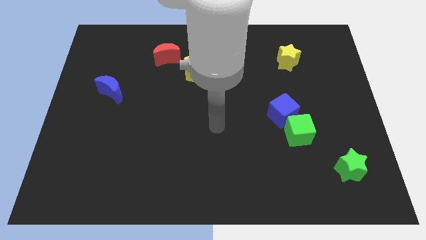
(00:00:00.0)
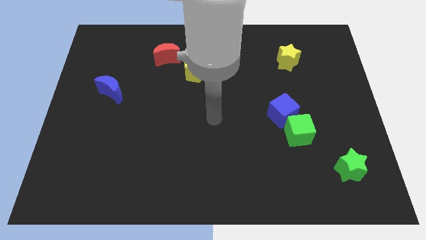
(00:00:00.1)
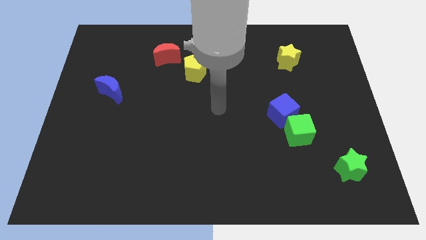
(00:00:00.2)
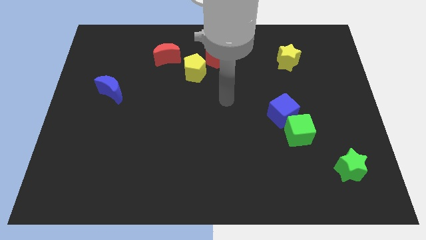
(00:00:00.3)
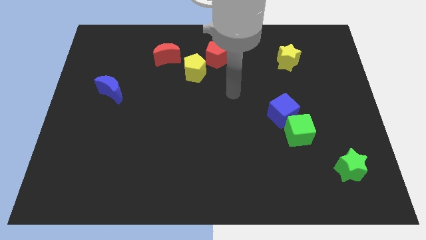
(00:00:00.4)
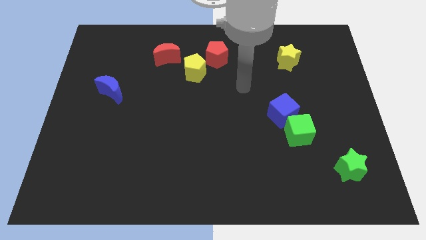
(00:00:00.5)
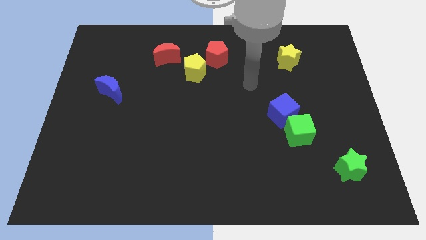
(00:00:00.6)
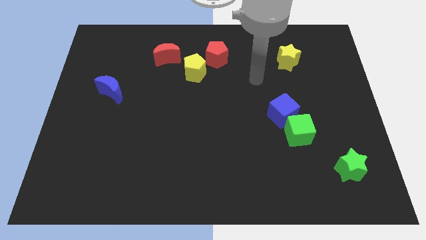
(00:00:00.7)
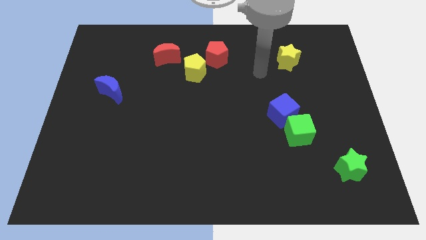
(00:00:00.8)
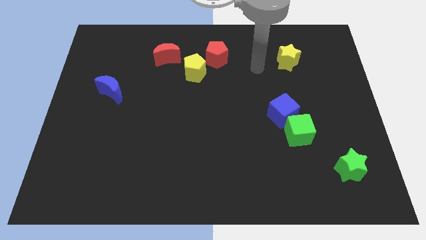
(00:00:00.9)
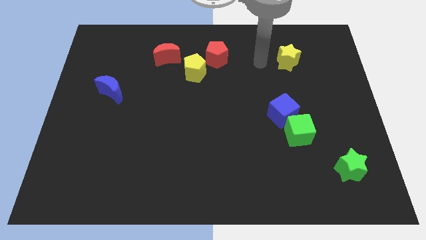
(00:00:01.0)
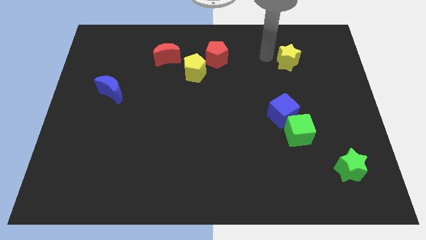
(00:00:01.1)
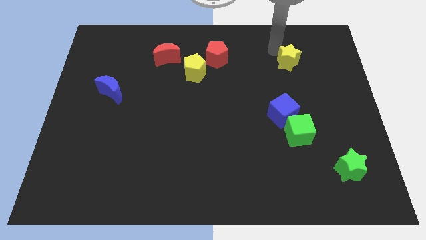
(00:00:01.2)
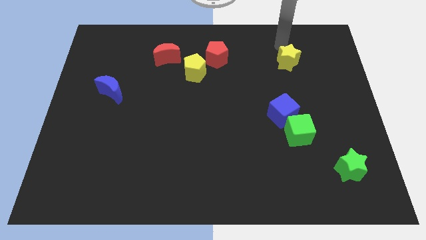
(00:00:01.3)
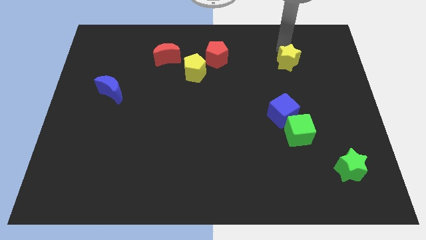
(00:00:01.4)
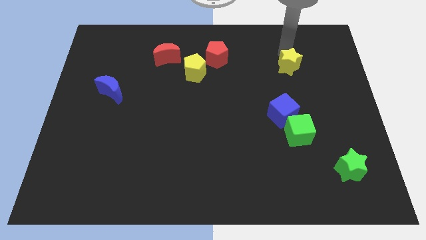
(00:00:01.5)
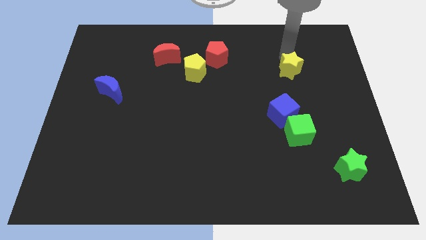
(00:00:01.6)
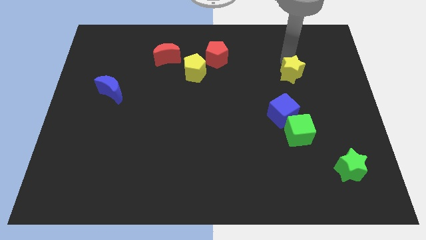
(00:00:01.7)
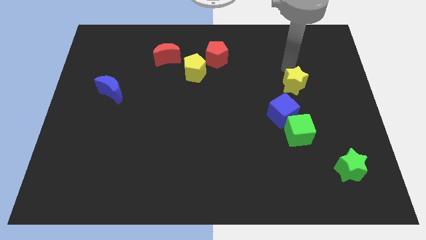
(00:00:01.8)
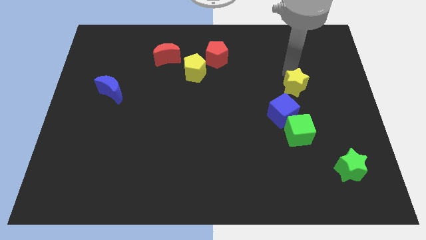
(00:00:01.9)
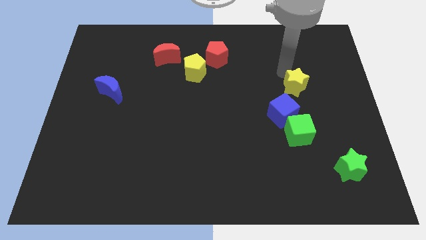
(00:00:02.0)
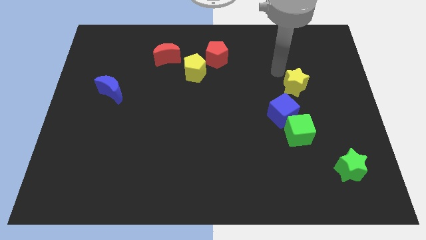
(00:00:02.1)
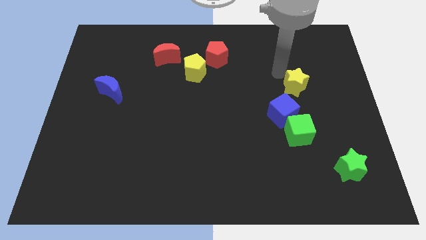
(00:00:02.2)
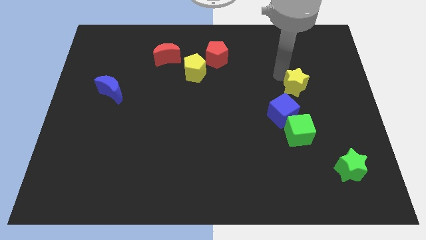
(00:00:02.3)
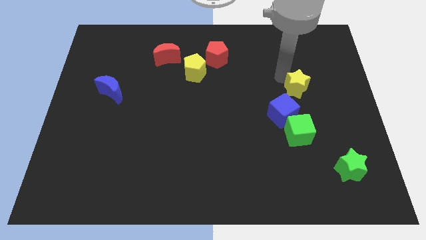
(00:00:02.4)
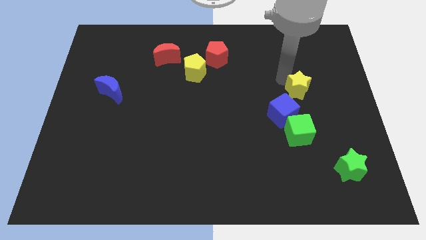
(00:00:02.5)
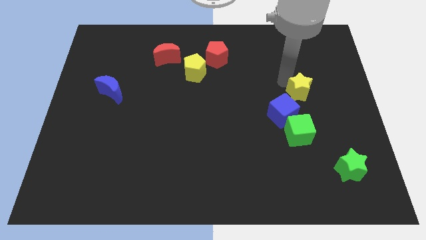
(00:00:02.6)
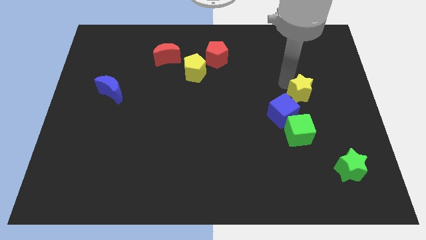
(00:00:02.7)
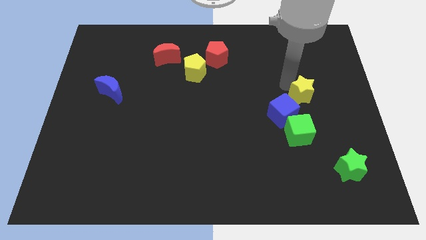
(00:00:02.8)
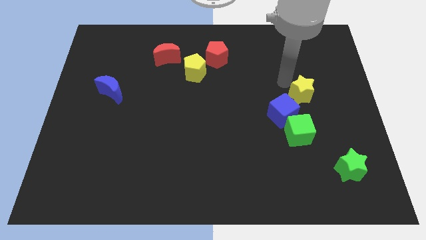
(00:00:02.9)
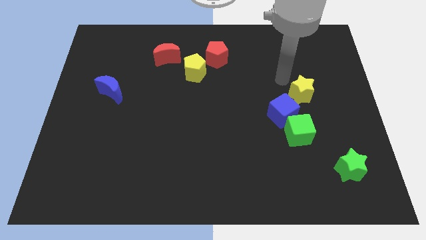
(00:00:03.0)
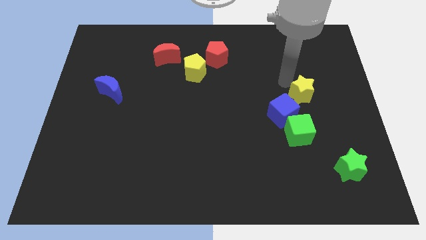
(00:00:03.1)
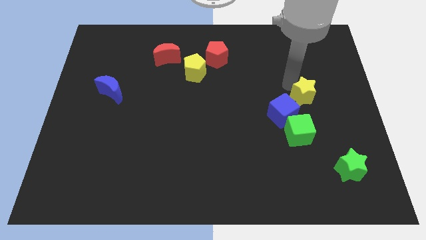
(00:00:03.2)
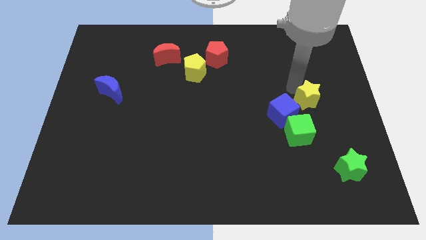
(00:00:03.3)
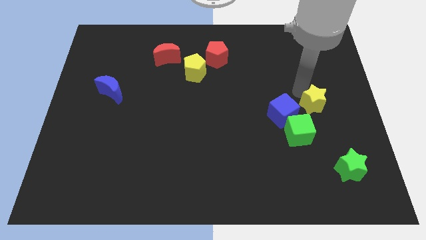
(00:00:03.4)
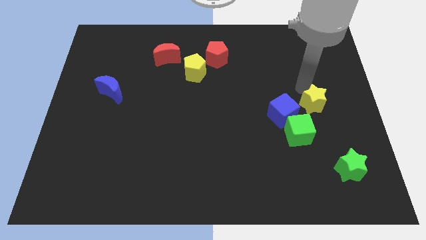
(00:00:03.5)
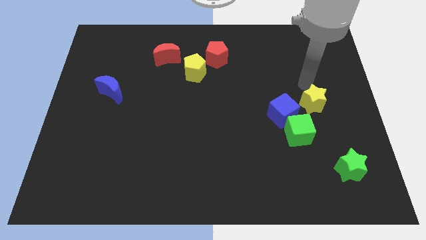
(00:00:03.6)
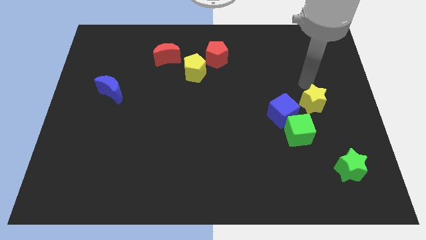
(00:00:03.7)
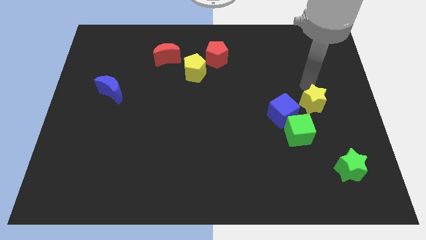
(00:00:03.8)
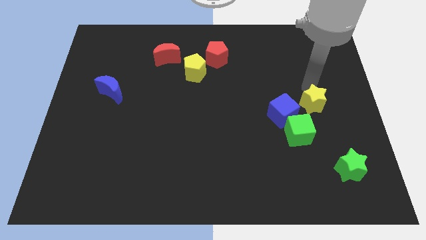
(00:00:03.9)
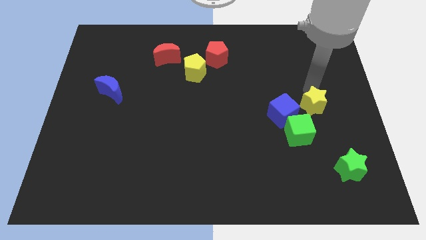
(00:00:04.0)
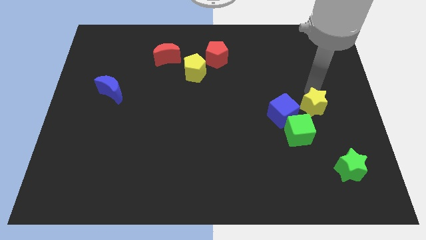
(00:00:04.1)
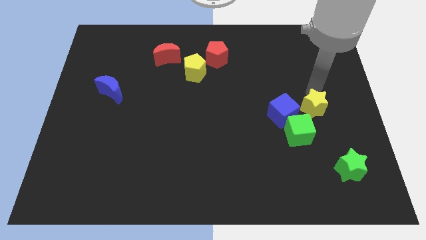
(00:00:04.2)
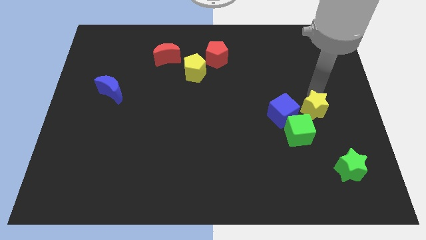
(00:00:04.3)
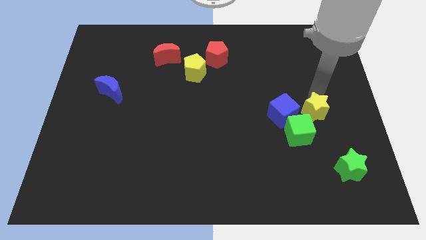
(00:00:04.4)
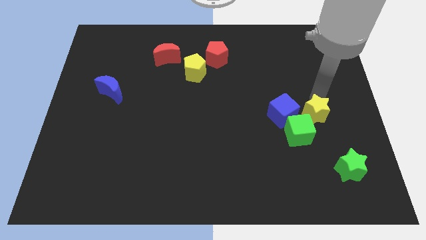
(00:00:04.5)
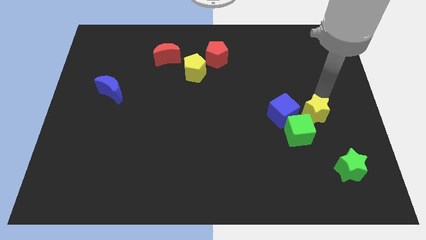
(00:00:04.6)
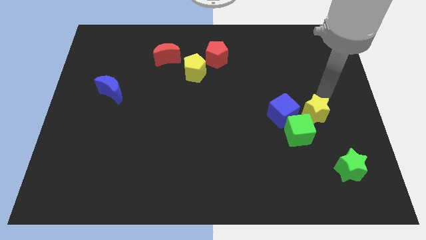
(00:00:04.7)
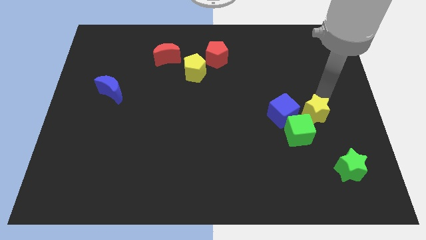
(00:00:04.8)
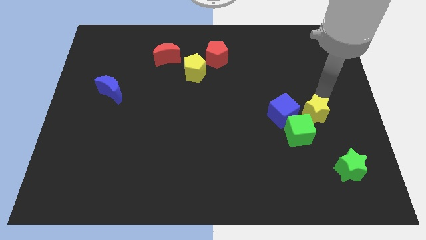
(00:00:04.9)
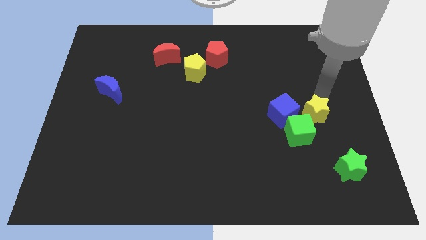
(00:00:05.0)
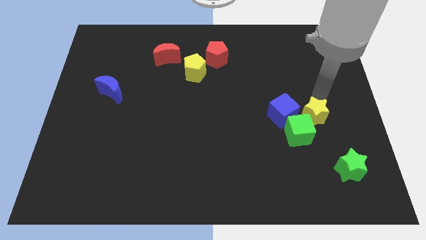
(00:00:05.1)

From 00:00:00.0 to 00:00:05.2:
put the yellow star diagonally down and to the right of the blue cube

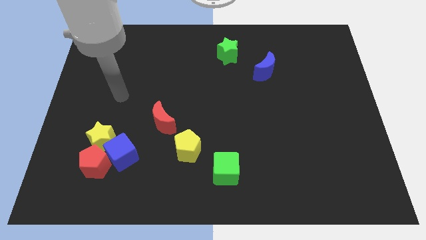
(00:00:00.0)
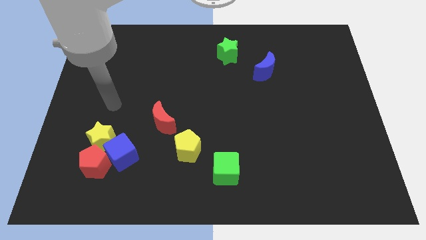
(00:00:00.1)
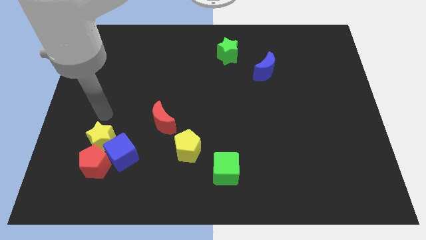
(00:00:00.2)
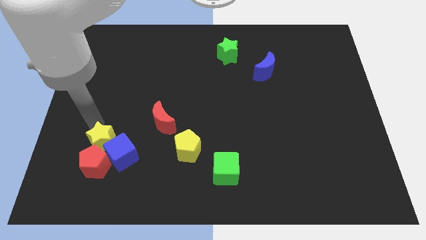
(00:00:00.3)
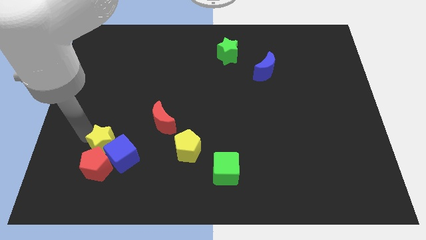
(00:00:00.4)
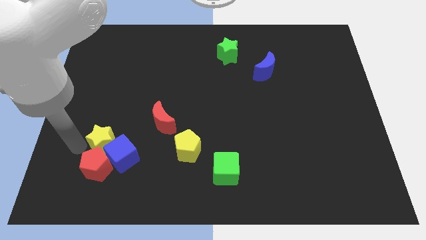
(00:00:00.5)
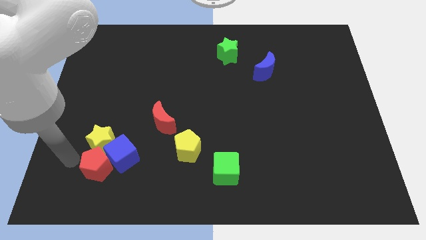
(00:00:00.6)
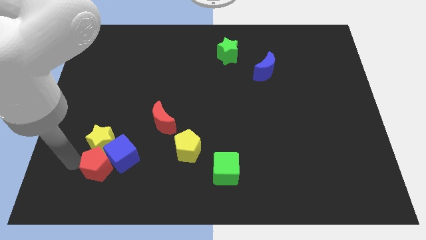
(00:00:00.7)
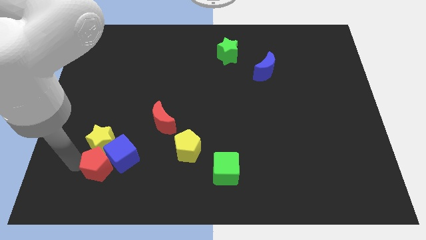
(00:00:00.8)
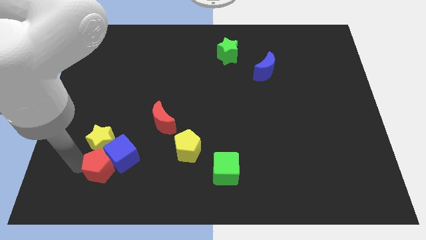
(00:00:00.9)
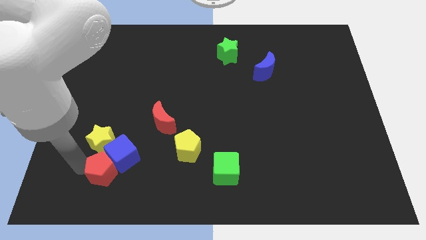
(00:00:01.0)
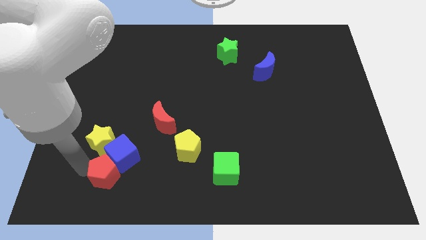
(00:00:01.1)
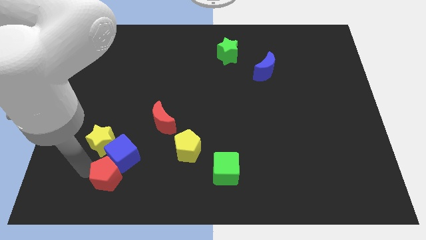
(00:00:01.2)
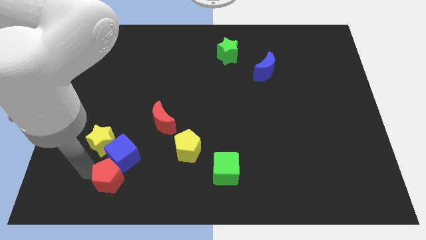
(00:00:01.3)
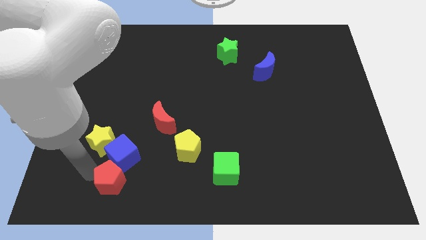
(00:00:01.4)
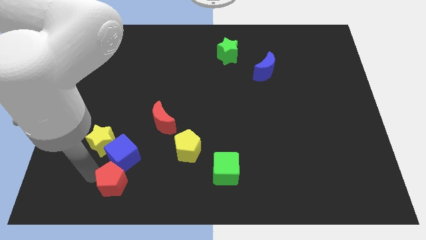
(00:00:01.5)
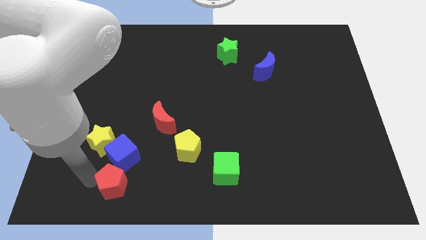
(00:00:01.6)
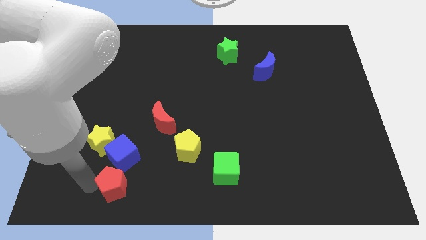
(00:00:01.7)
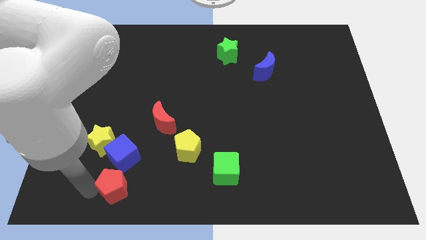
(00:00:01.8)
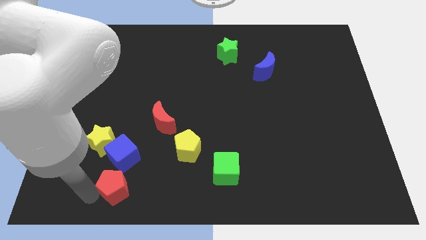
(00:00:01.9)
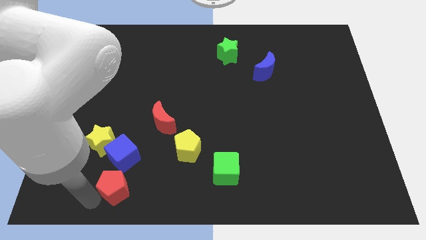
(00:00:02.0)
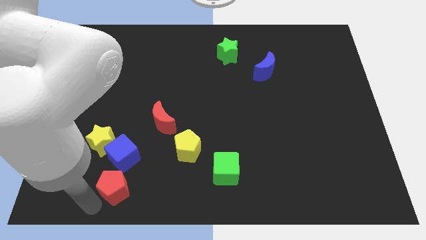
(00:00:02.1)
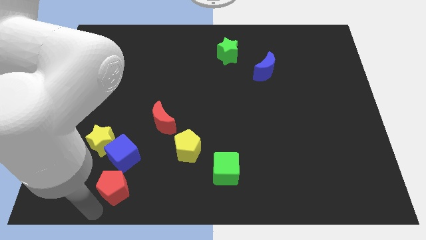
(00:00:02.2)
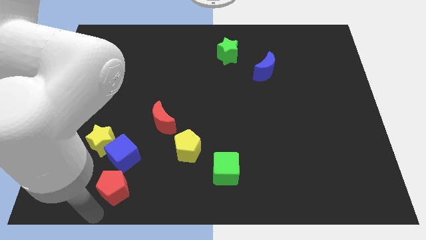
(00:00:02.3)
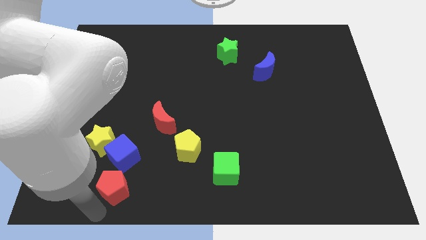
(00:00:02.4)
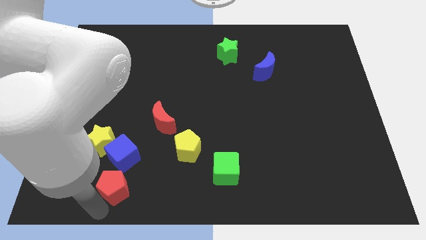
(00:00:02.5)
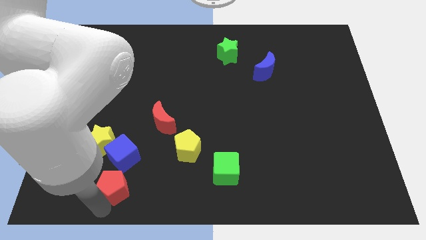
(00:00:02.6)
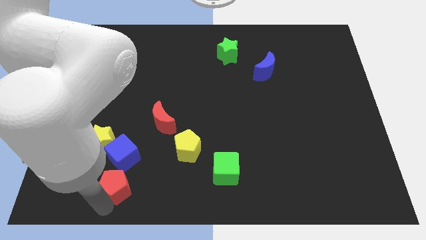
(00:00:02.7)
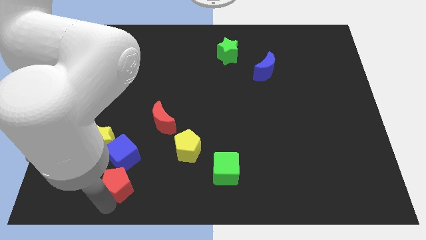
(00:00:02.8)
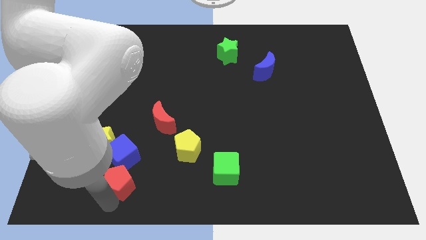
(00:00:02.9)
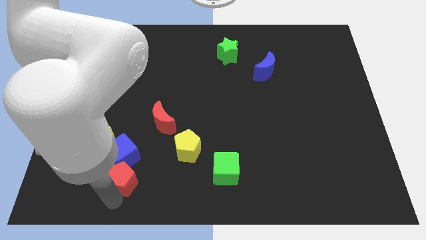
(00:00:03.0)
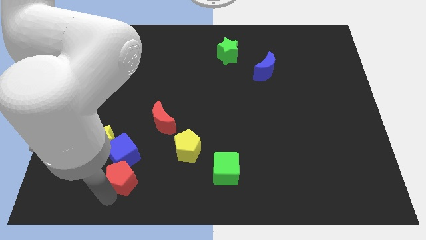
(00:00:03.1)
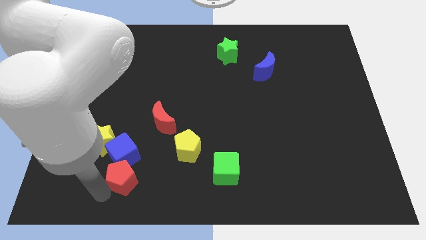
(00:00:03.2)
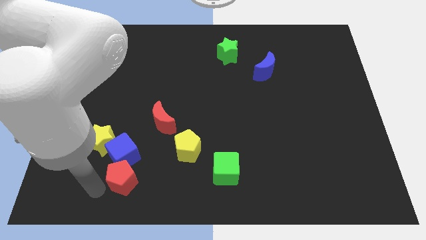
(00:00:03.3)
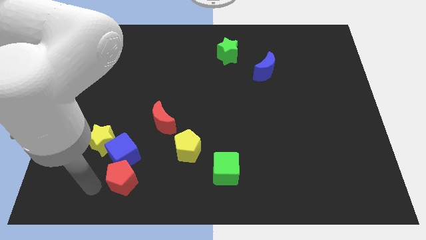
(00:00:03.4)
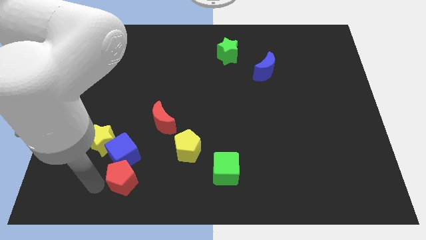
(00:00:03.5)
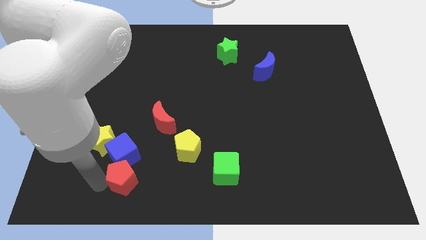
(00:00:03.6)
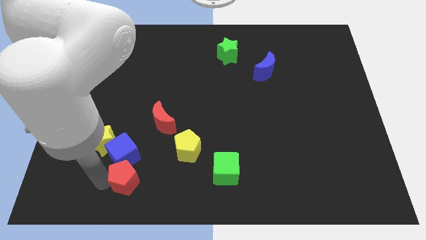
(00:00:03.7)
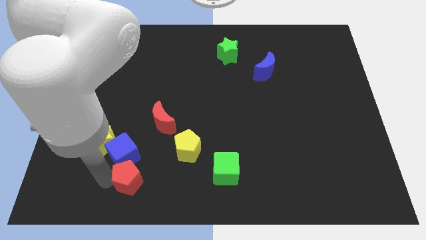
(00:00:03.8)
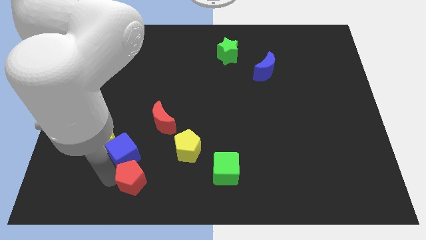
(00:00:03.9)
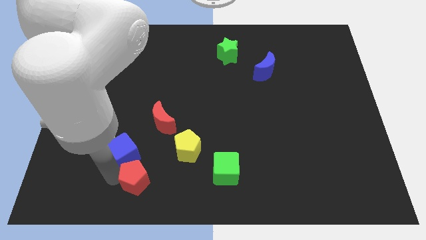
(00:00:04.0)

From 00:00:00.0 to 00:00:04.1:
slide the red pentagon to the bottom left side of the yellow pentagon
